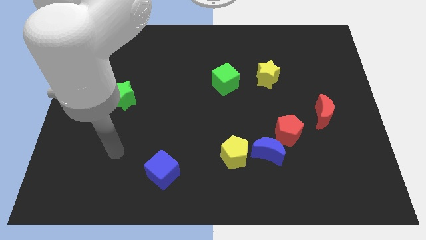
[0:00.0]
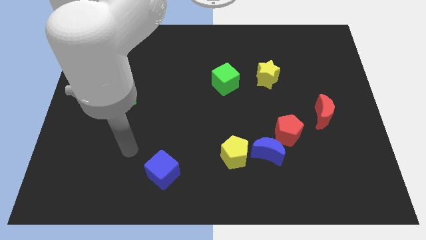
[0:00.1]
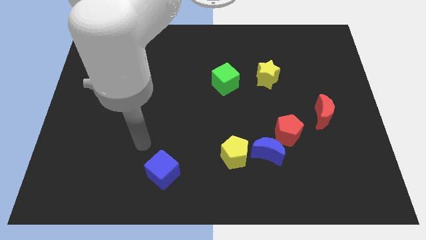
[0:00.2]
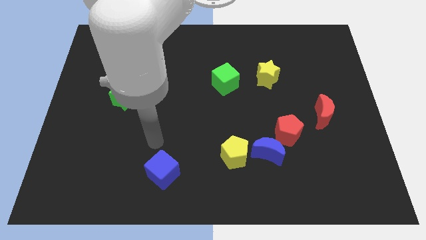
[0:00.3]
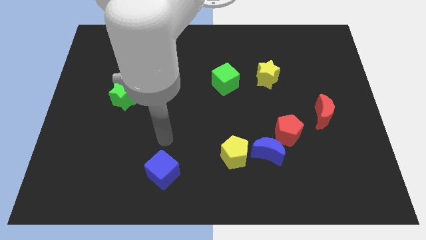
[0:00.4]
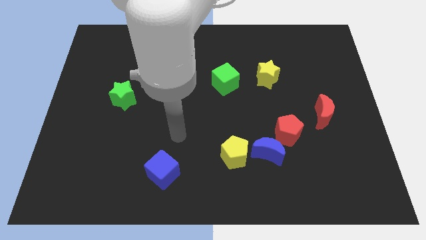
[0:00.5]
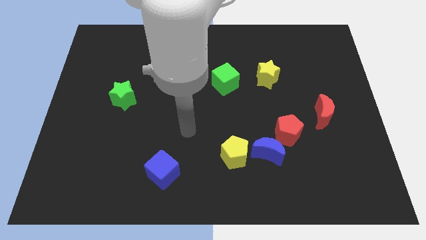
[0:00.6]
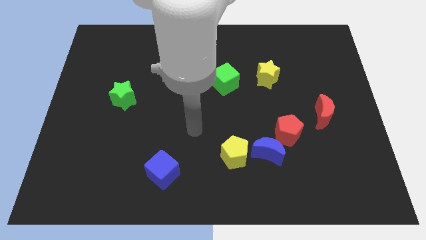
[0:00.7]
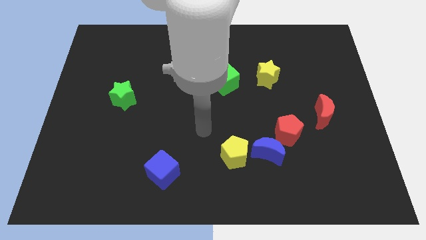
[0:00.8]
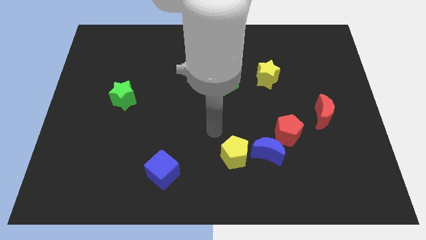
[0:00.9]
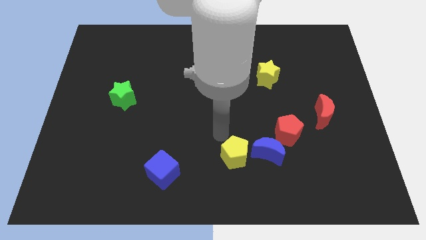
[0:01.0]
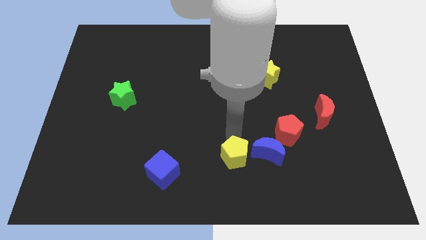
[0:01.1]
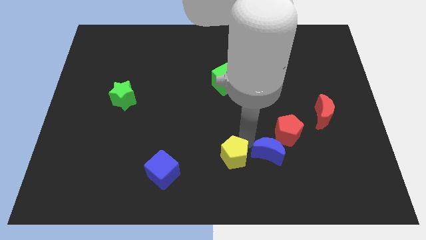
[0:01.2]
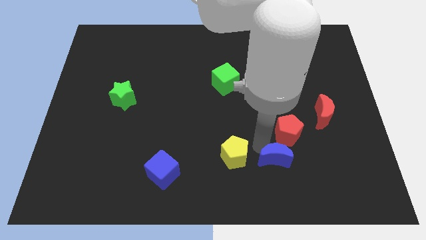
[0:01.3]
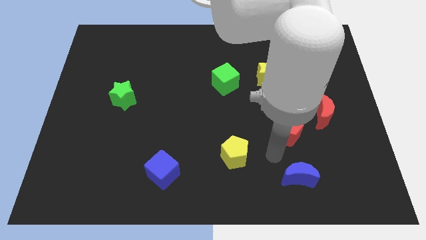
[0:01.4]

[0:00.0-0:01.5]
pull the red pentagon apart from the blue moon

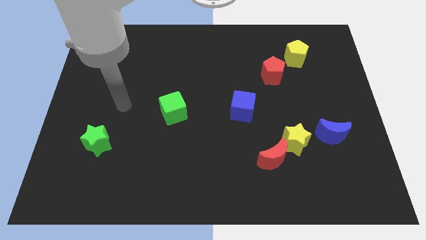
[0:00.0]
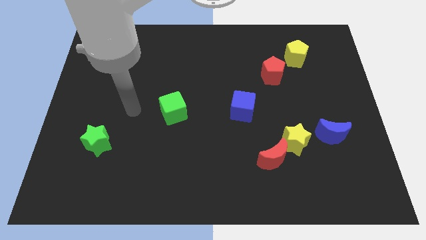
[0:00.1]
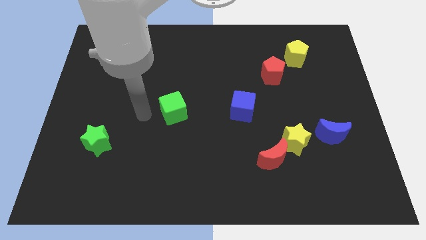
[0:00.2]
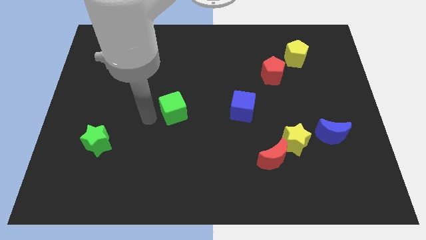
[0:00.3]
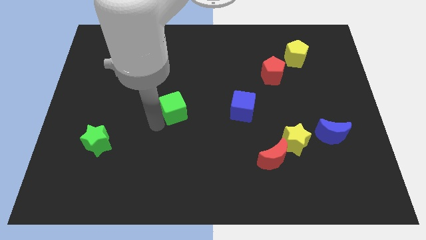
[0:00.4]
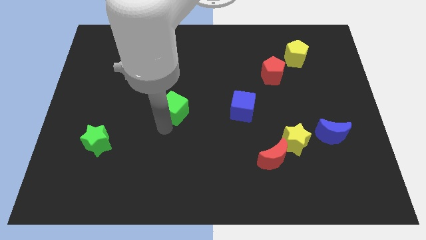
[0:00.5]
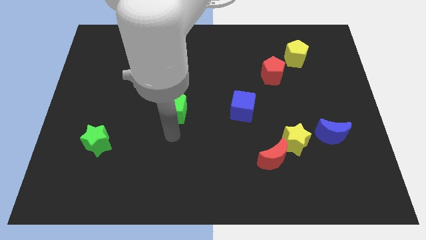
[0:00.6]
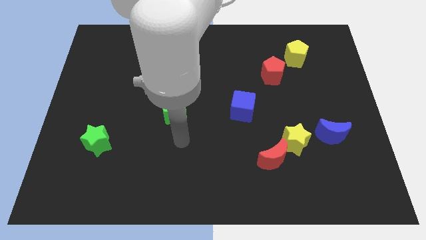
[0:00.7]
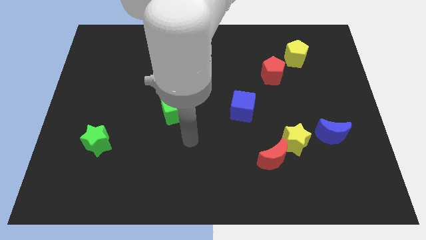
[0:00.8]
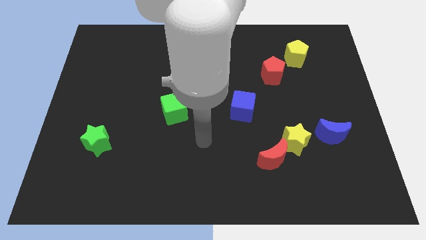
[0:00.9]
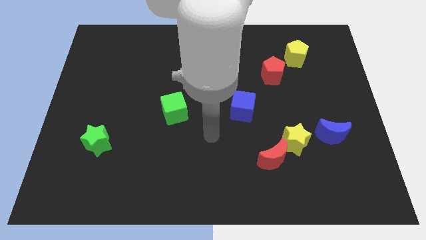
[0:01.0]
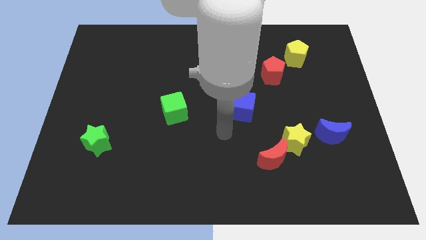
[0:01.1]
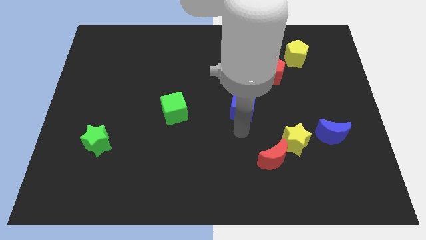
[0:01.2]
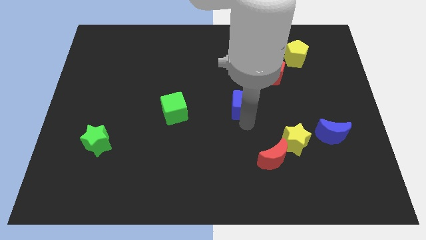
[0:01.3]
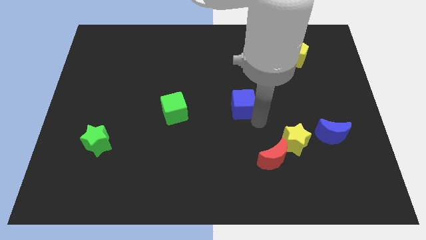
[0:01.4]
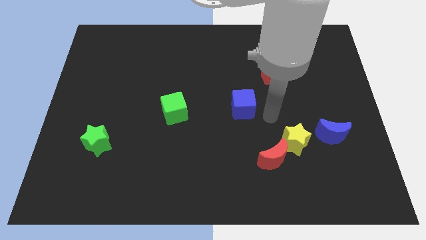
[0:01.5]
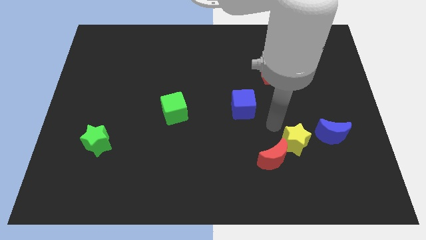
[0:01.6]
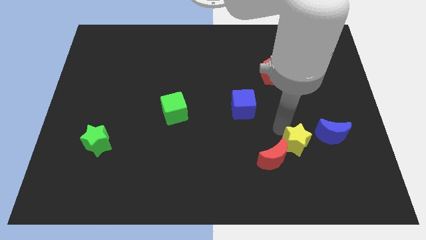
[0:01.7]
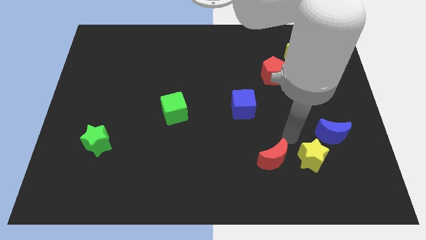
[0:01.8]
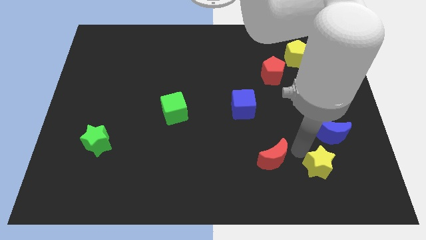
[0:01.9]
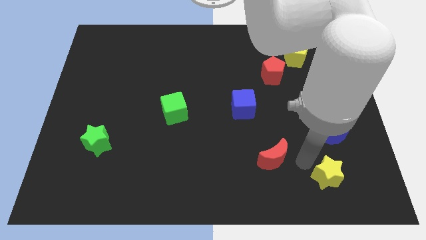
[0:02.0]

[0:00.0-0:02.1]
separate the red moon from the yellow star

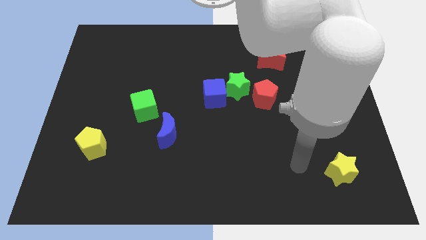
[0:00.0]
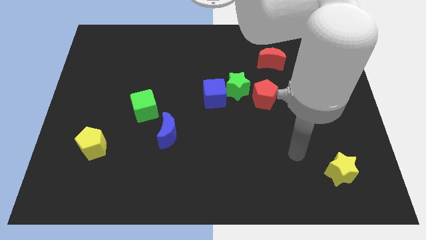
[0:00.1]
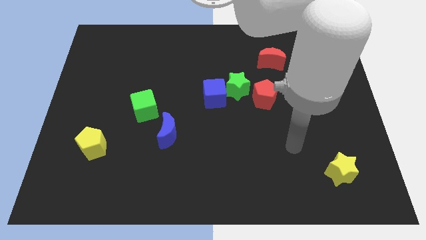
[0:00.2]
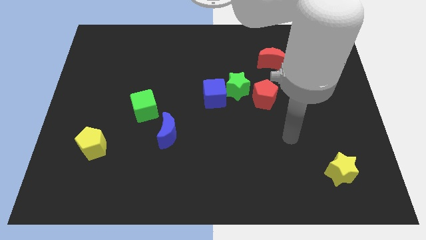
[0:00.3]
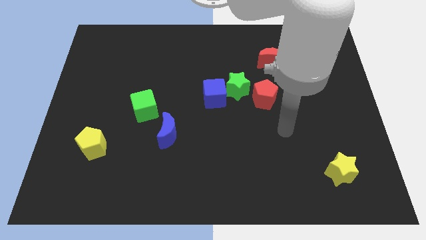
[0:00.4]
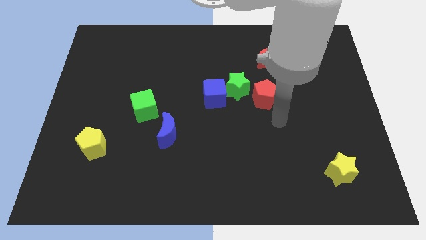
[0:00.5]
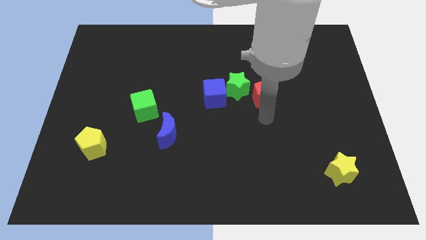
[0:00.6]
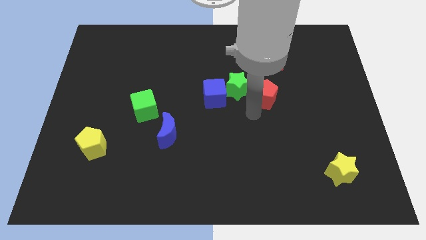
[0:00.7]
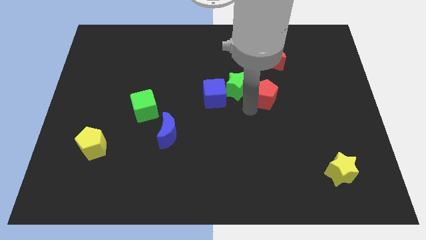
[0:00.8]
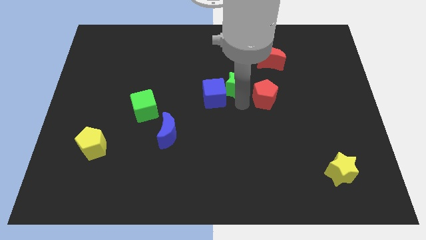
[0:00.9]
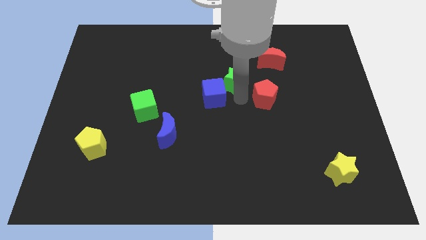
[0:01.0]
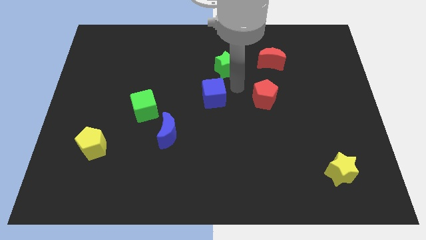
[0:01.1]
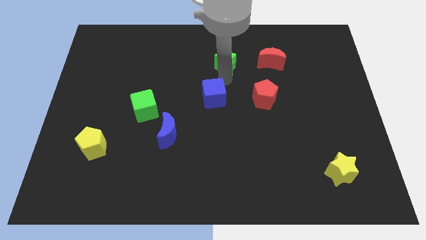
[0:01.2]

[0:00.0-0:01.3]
move the blue cube away from the green star

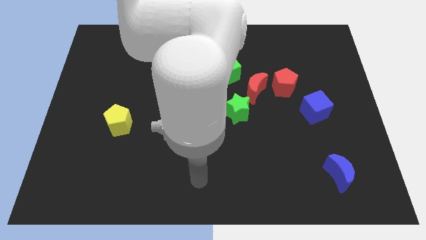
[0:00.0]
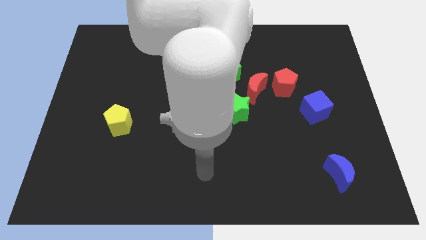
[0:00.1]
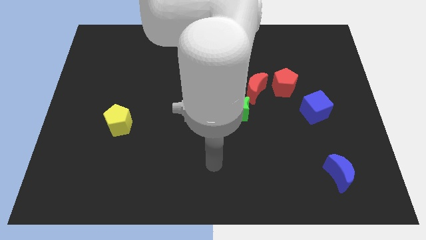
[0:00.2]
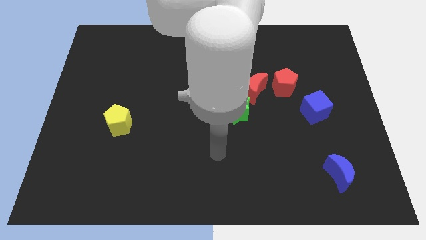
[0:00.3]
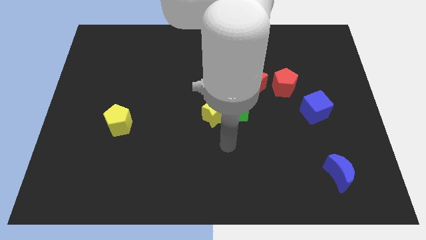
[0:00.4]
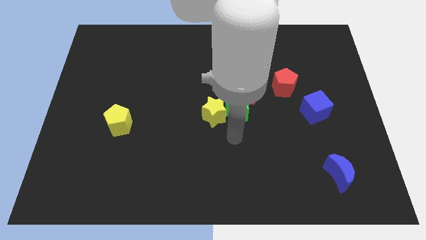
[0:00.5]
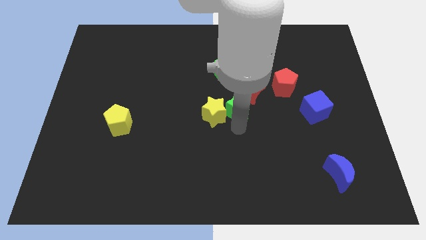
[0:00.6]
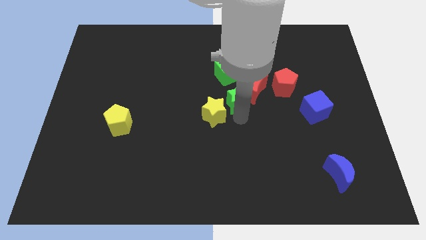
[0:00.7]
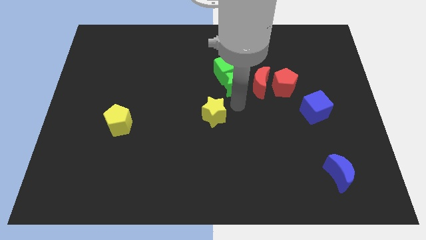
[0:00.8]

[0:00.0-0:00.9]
pull the yellow star apart from the green star

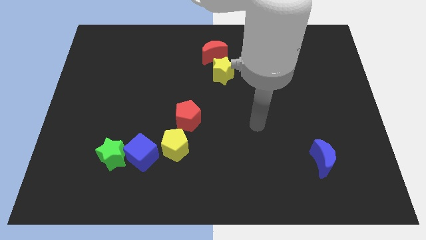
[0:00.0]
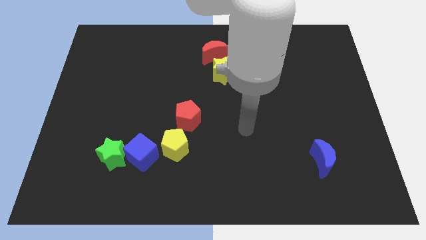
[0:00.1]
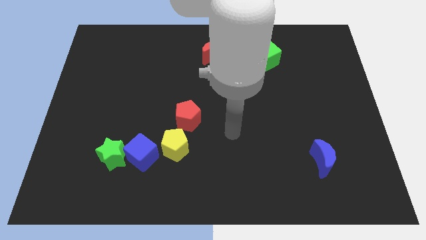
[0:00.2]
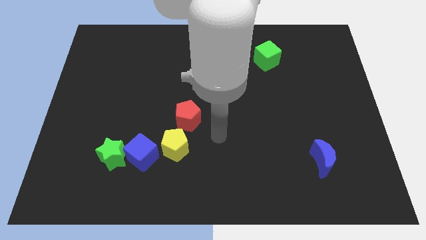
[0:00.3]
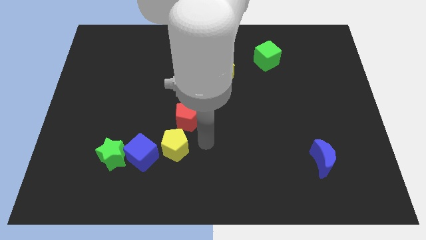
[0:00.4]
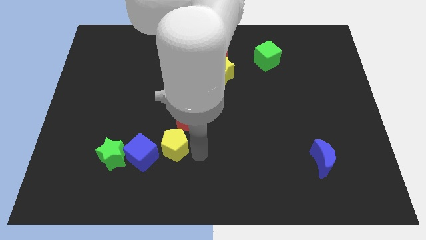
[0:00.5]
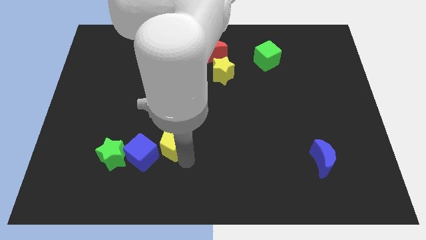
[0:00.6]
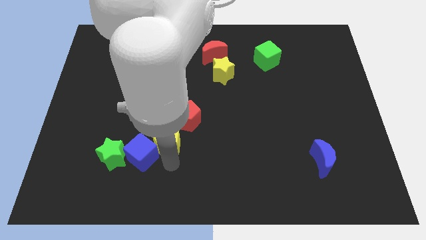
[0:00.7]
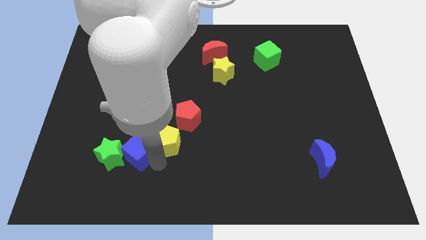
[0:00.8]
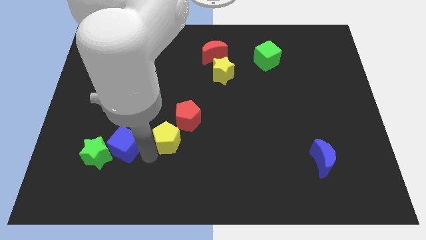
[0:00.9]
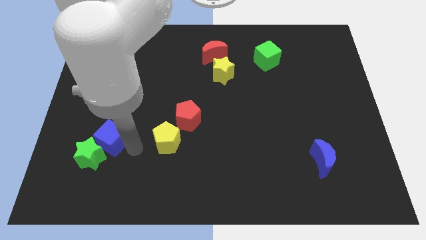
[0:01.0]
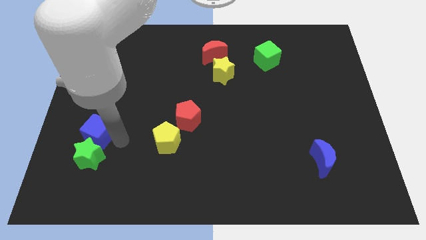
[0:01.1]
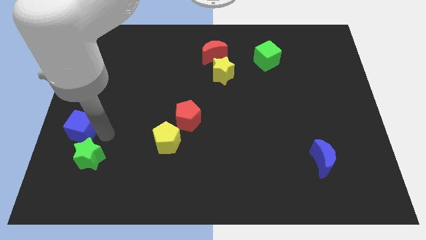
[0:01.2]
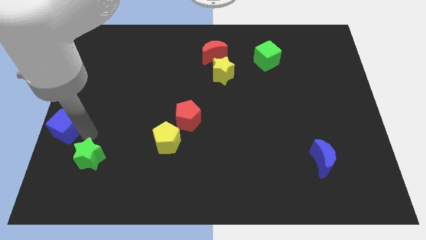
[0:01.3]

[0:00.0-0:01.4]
pull the green star apart from the blue cube

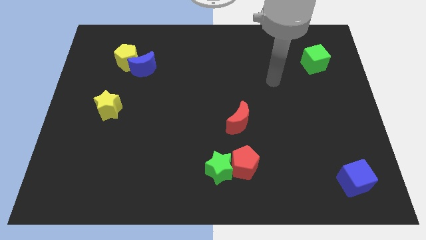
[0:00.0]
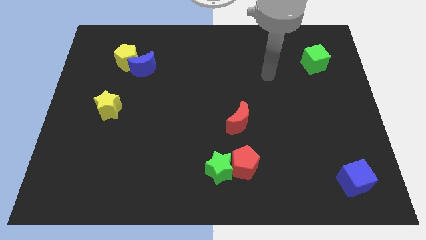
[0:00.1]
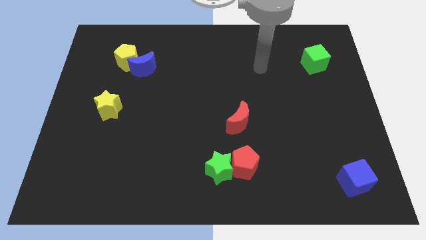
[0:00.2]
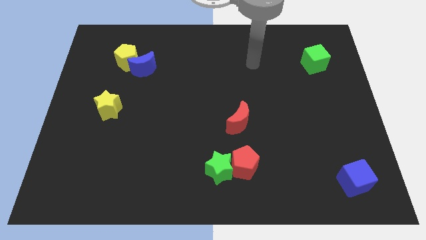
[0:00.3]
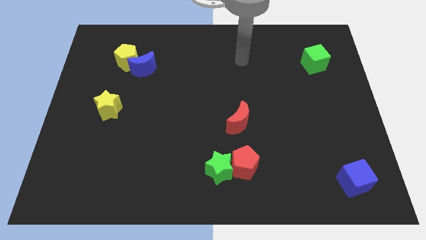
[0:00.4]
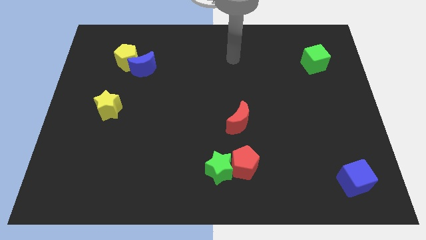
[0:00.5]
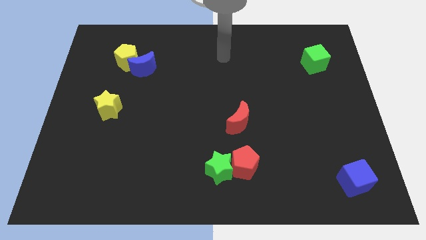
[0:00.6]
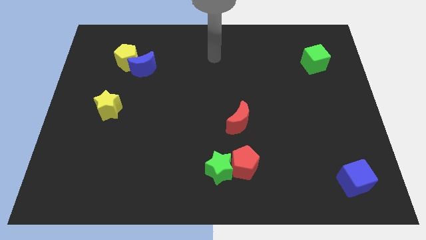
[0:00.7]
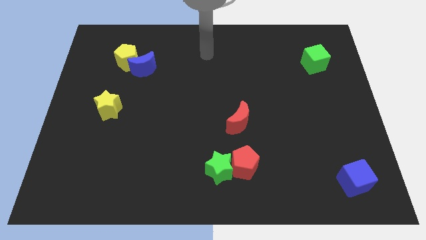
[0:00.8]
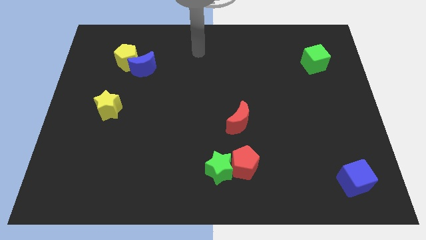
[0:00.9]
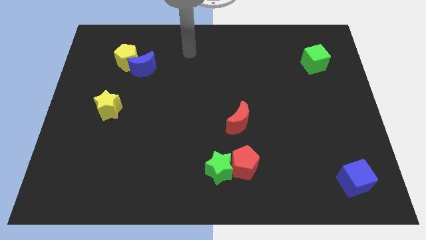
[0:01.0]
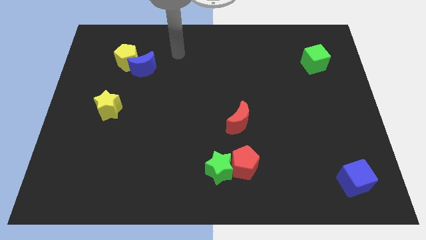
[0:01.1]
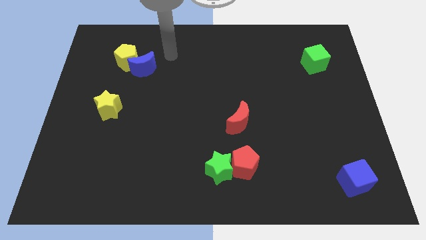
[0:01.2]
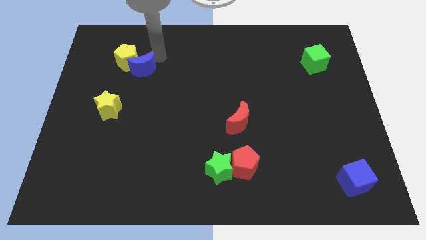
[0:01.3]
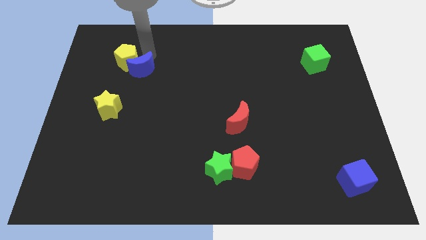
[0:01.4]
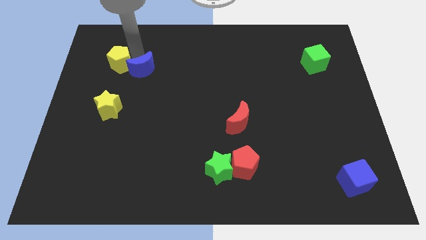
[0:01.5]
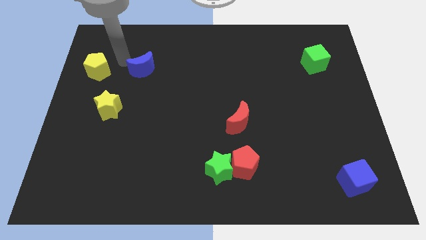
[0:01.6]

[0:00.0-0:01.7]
move the blue moon away from the yellow pentagon

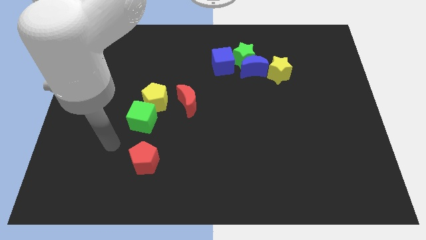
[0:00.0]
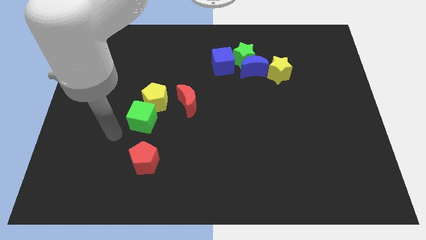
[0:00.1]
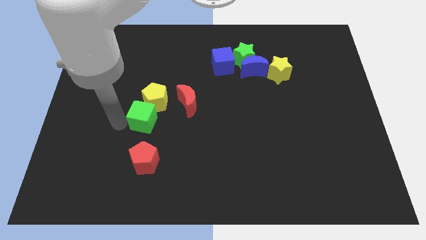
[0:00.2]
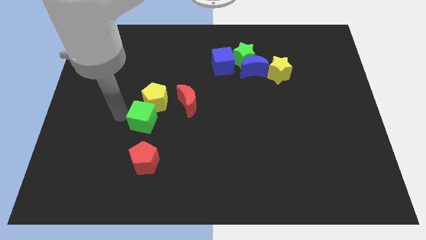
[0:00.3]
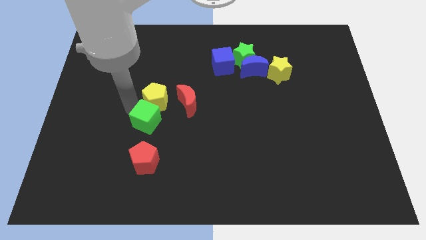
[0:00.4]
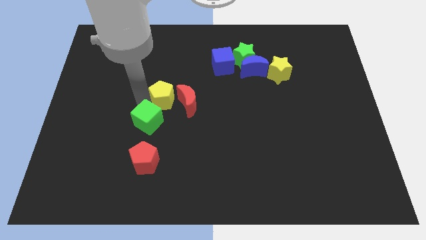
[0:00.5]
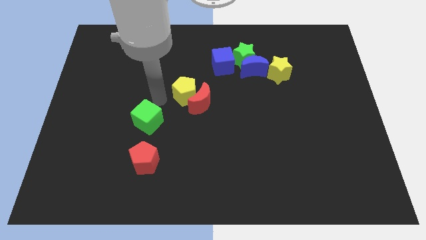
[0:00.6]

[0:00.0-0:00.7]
move the green cube away from the yellow pentagon
